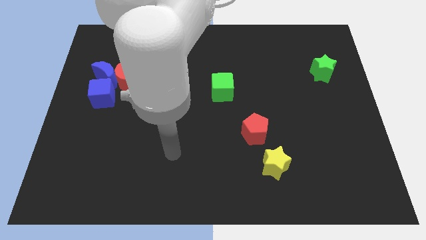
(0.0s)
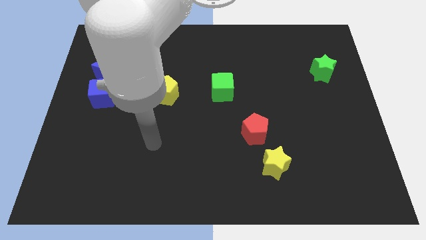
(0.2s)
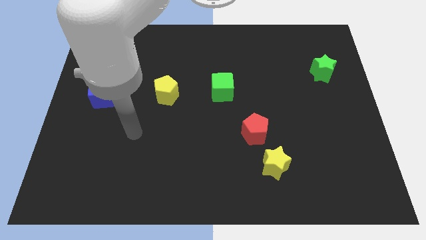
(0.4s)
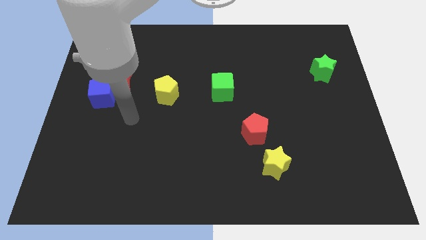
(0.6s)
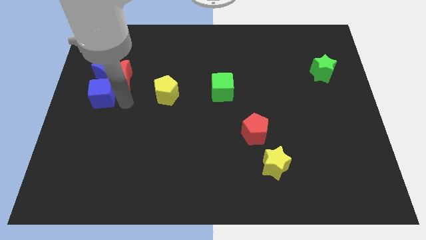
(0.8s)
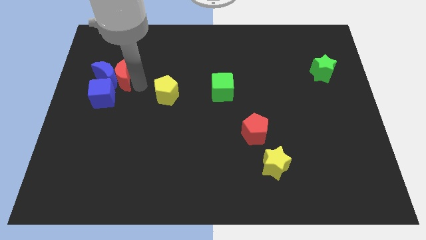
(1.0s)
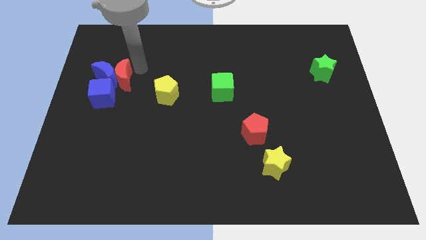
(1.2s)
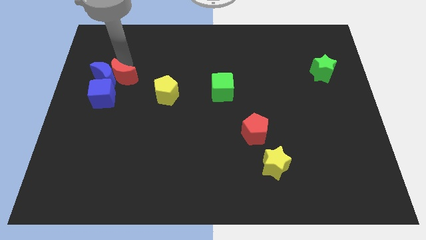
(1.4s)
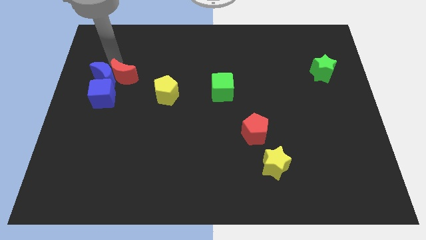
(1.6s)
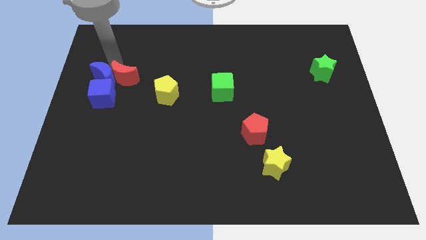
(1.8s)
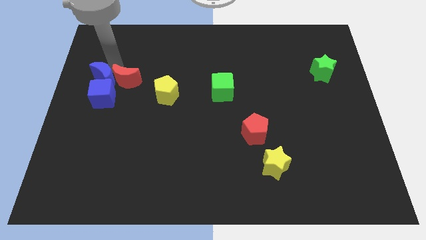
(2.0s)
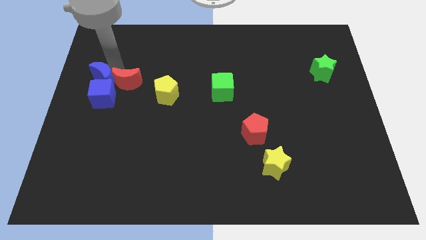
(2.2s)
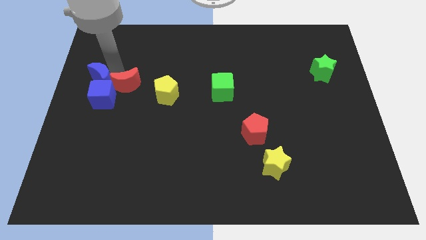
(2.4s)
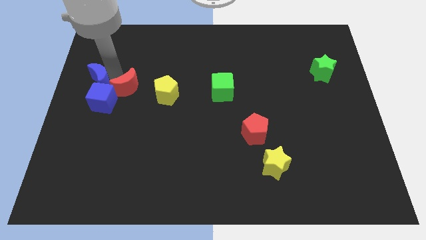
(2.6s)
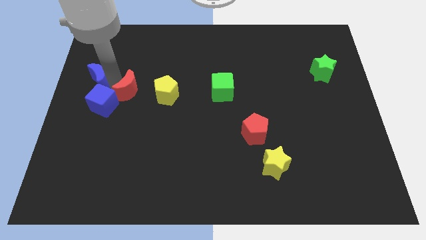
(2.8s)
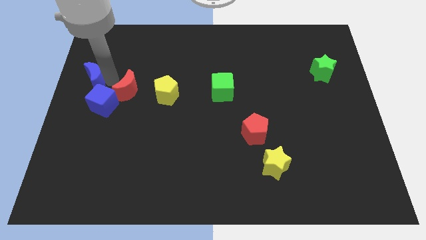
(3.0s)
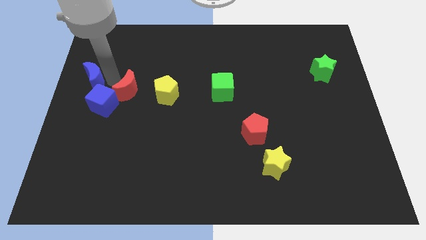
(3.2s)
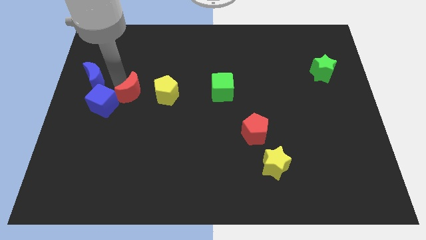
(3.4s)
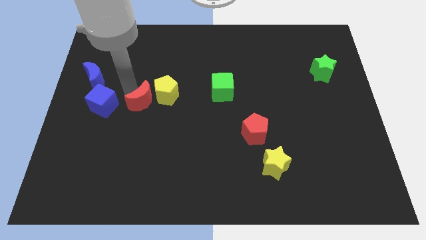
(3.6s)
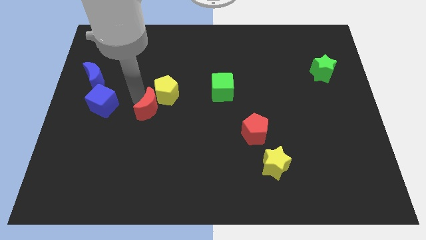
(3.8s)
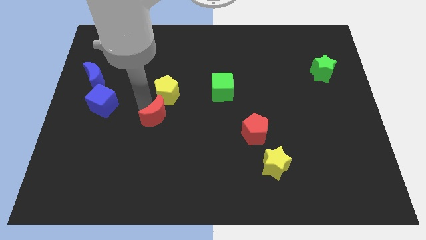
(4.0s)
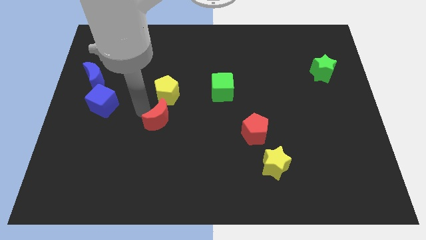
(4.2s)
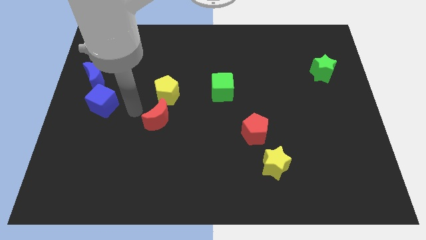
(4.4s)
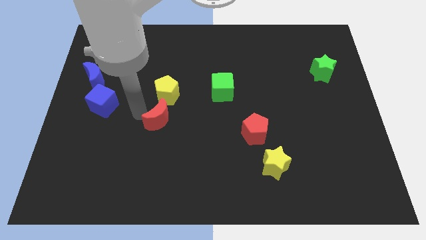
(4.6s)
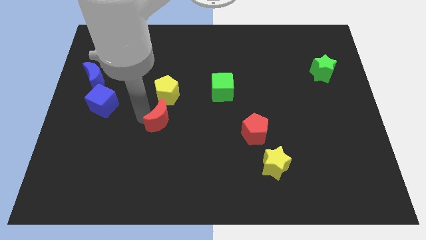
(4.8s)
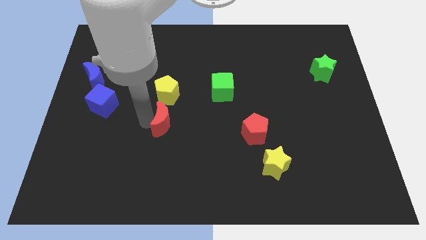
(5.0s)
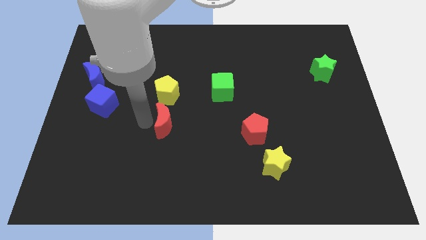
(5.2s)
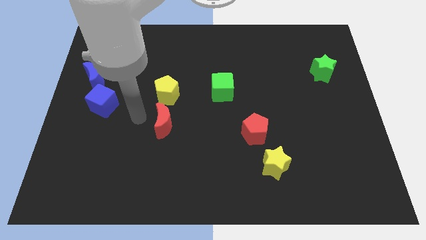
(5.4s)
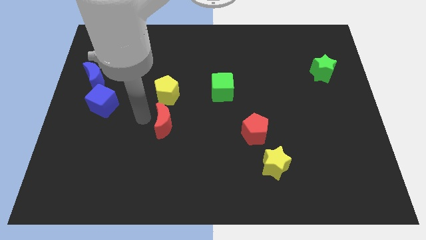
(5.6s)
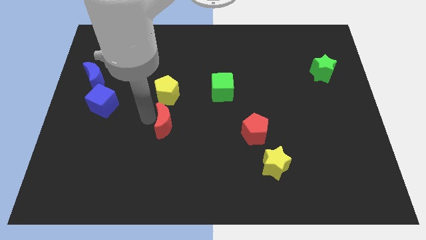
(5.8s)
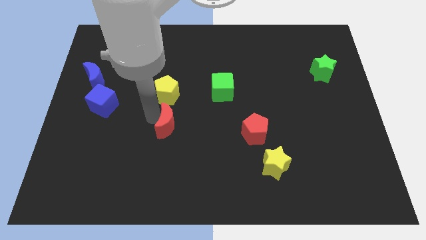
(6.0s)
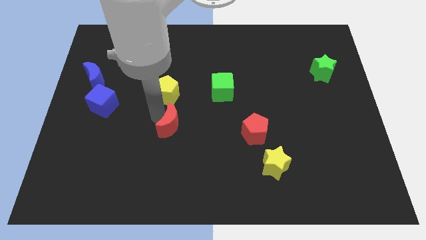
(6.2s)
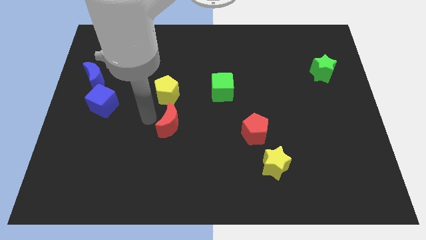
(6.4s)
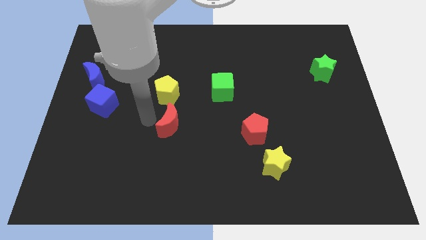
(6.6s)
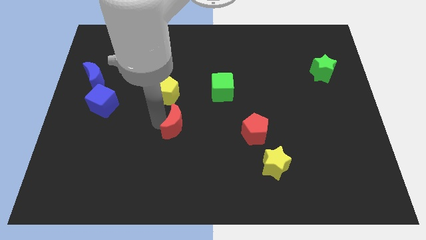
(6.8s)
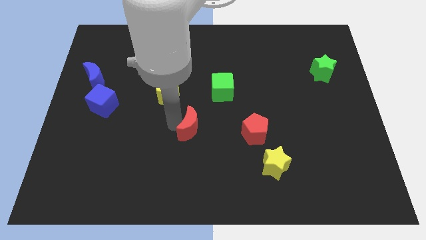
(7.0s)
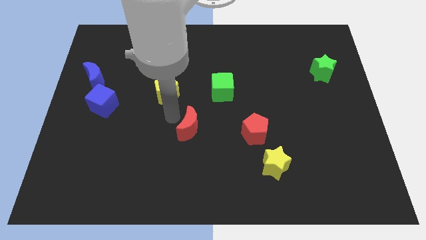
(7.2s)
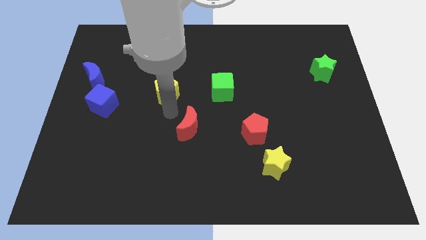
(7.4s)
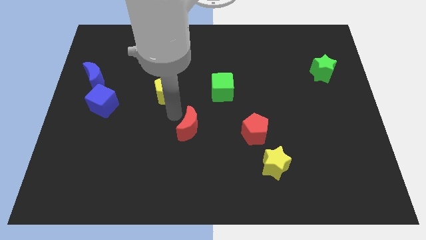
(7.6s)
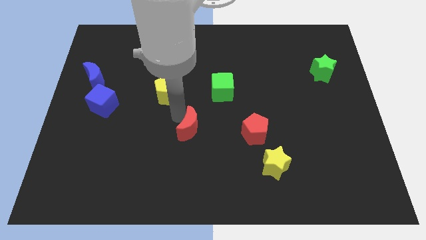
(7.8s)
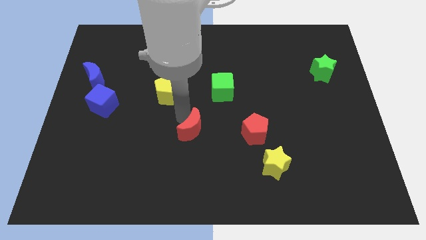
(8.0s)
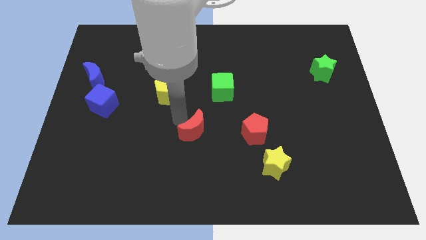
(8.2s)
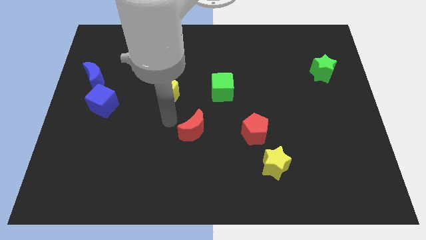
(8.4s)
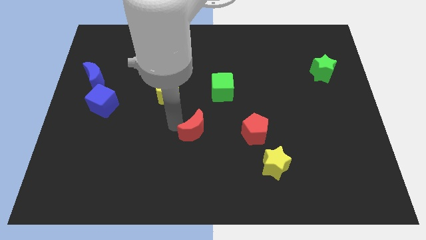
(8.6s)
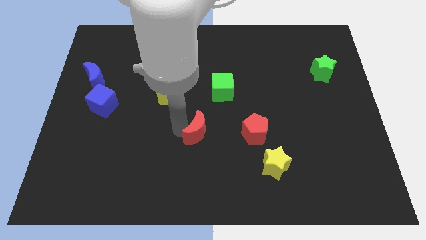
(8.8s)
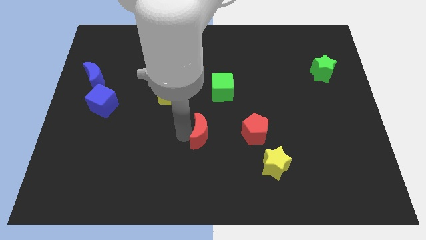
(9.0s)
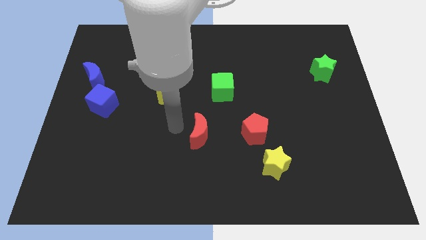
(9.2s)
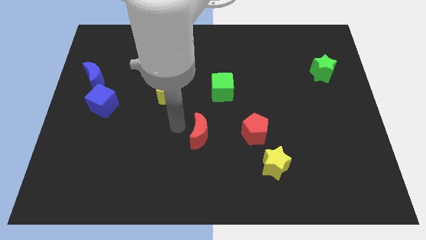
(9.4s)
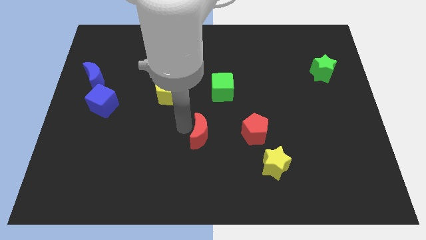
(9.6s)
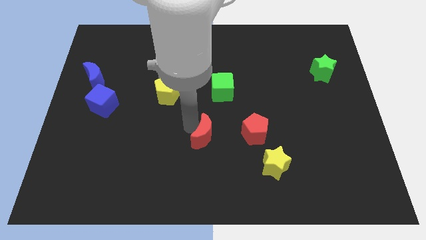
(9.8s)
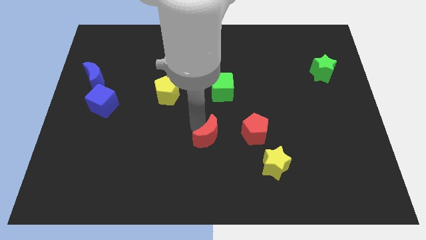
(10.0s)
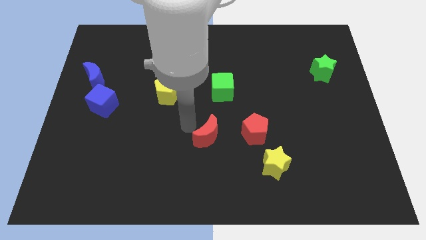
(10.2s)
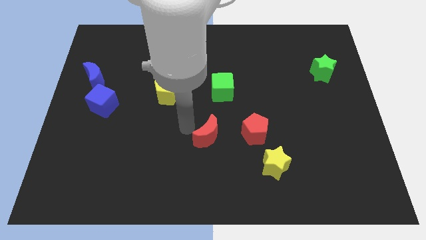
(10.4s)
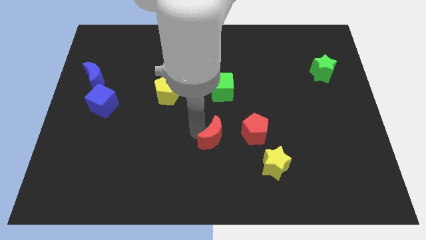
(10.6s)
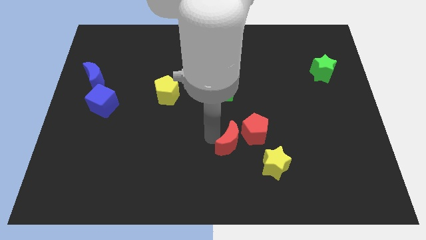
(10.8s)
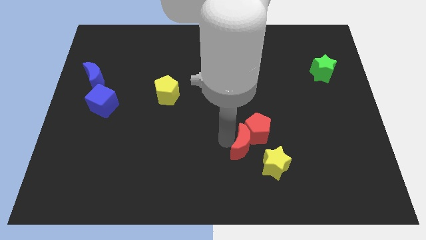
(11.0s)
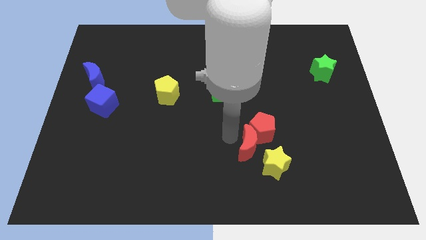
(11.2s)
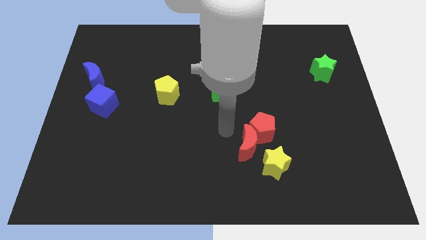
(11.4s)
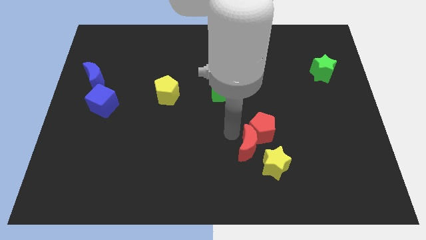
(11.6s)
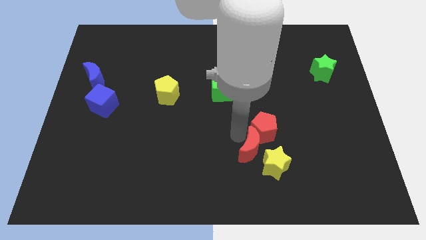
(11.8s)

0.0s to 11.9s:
put the red moon towards the yellow star

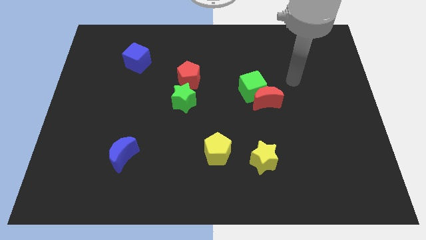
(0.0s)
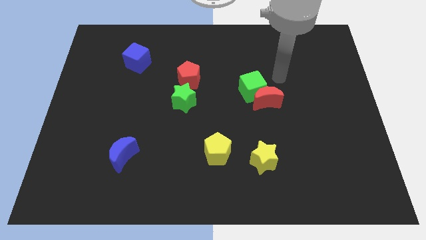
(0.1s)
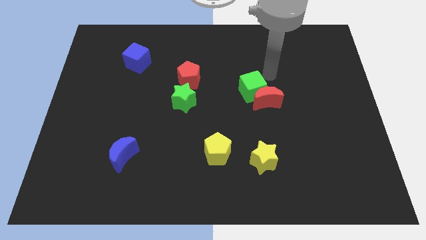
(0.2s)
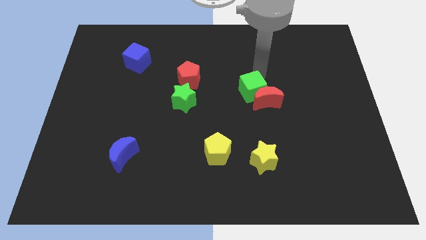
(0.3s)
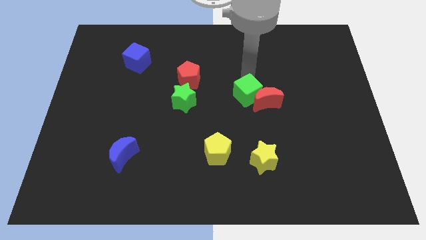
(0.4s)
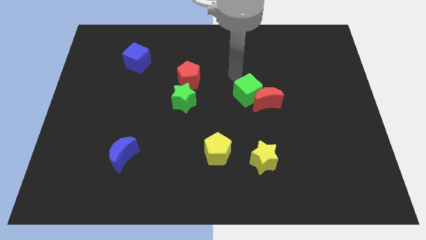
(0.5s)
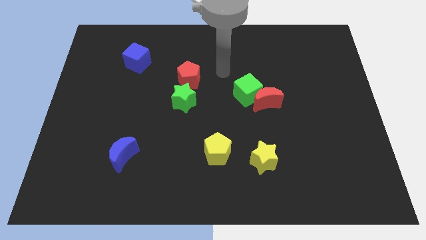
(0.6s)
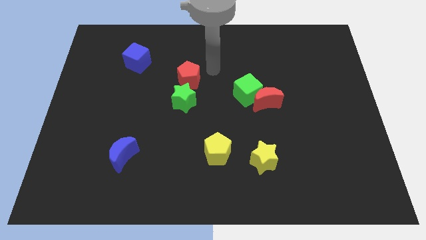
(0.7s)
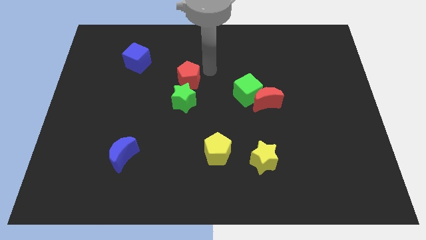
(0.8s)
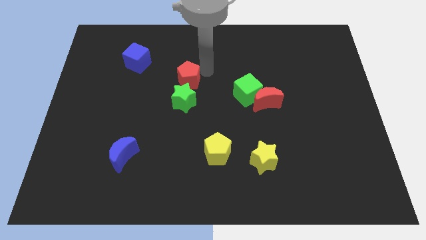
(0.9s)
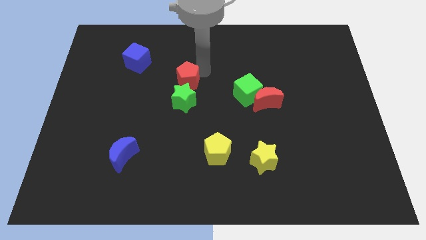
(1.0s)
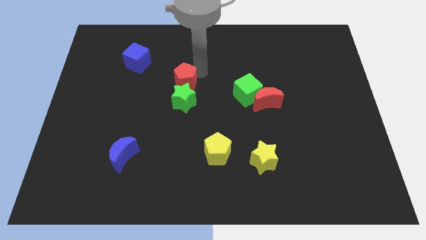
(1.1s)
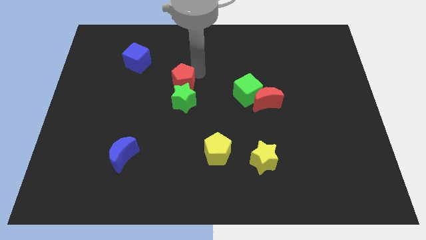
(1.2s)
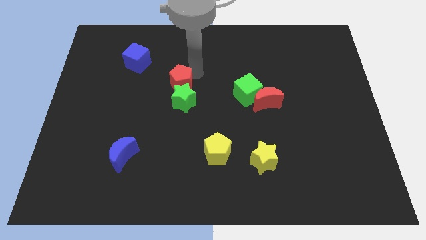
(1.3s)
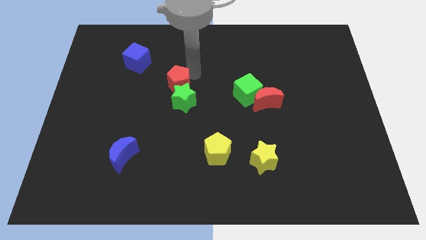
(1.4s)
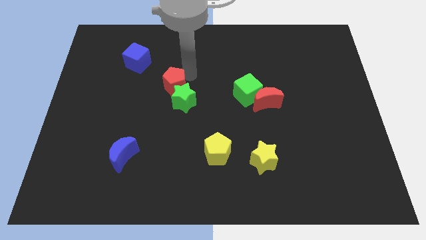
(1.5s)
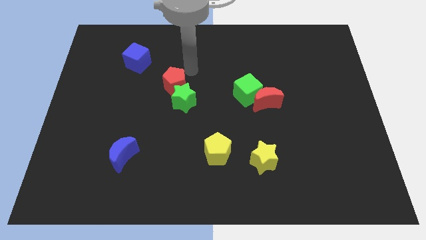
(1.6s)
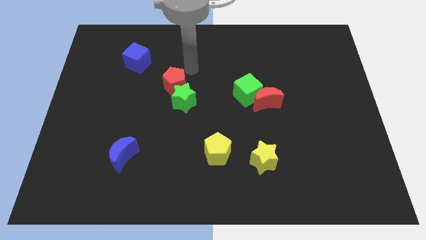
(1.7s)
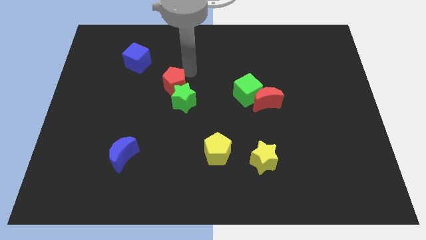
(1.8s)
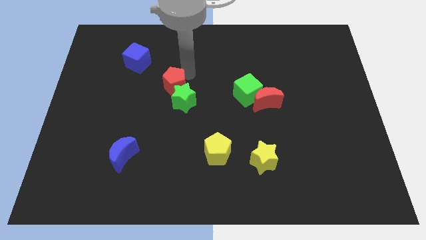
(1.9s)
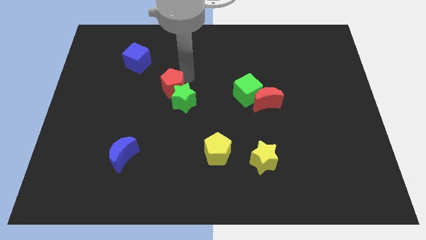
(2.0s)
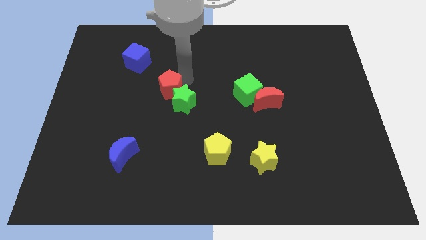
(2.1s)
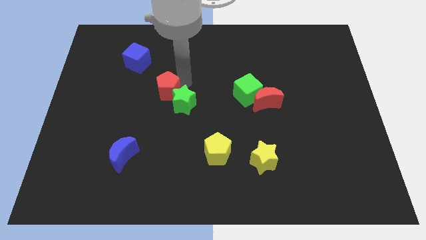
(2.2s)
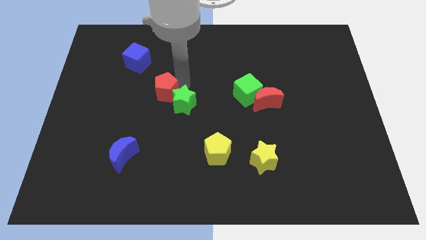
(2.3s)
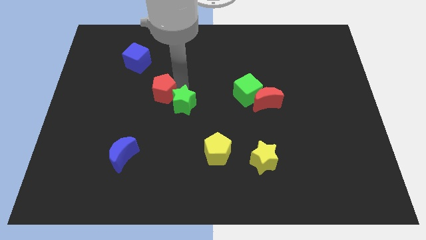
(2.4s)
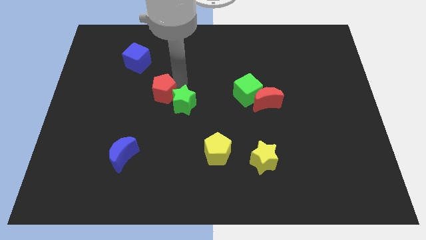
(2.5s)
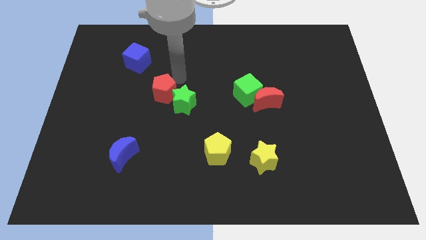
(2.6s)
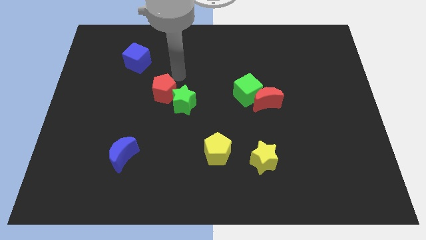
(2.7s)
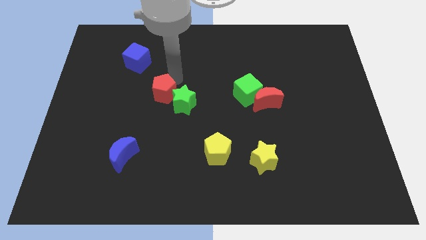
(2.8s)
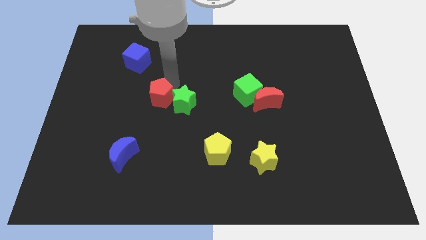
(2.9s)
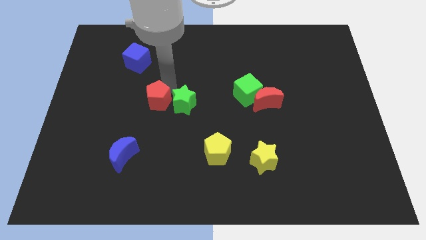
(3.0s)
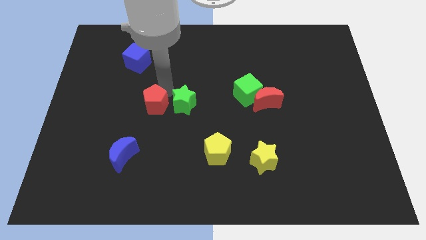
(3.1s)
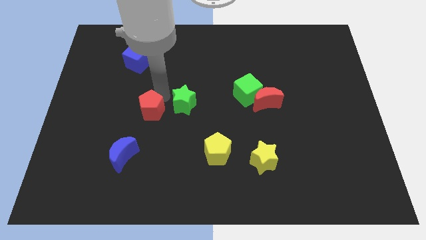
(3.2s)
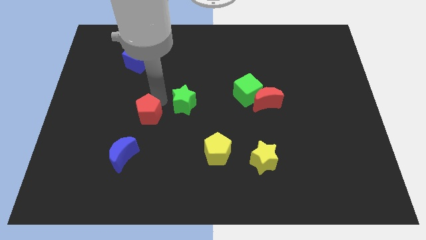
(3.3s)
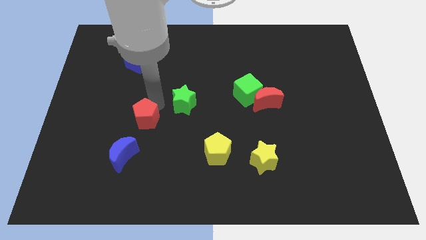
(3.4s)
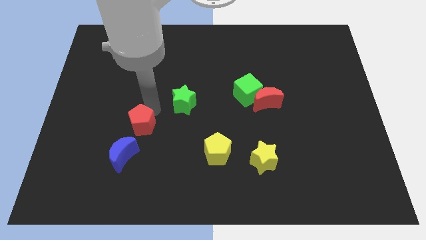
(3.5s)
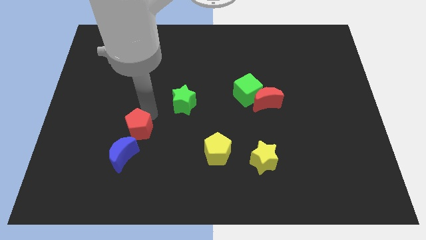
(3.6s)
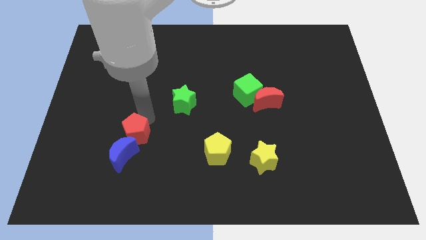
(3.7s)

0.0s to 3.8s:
move the red pentagon close to the blue moon
